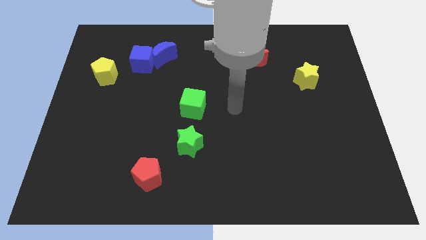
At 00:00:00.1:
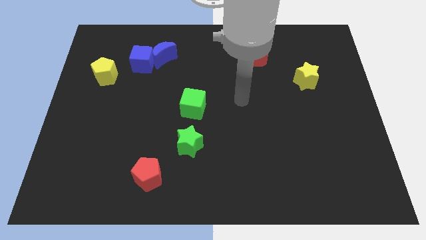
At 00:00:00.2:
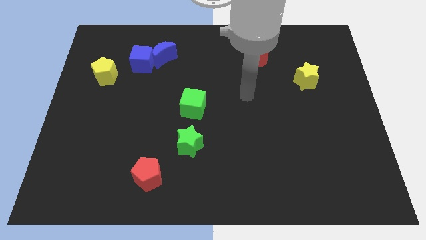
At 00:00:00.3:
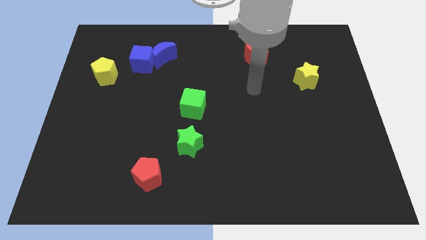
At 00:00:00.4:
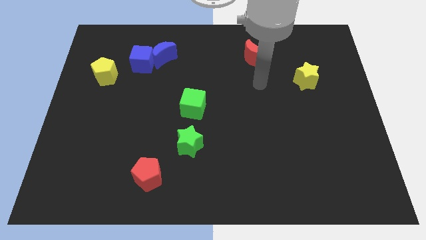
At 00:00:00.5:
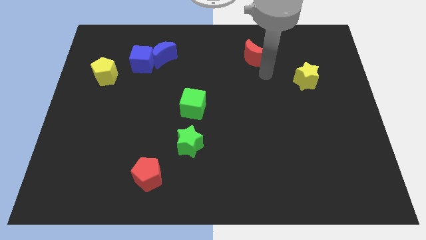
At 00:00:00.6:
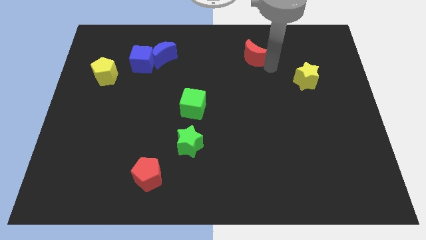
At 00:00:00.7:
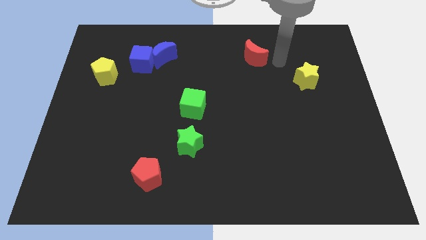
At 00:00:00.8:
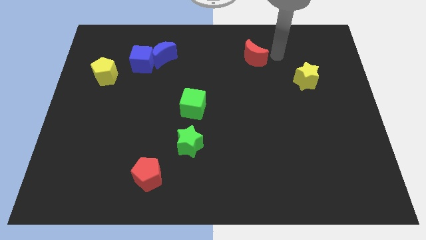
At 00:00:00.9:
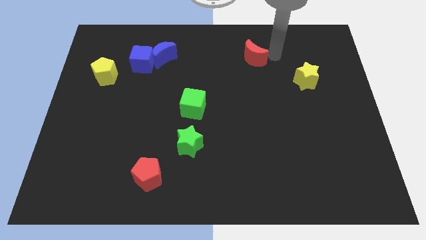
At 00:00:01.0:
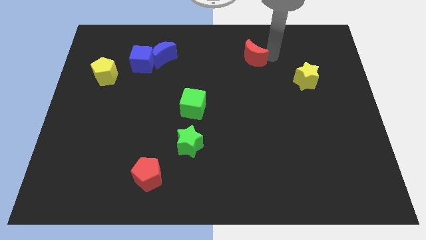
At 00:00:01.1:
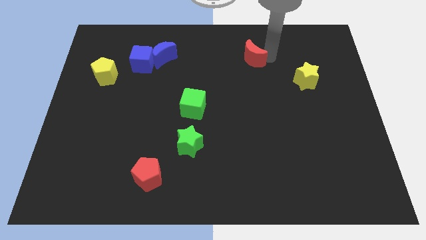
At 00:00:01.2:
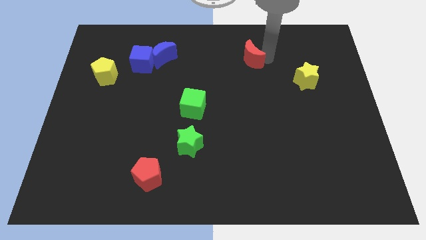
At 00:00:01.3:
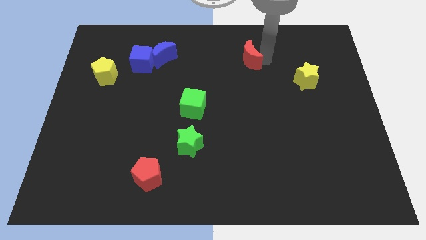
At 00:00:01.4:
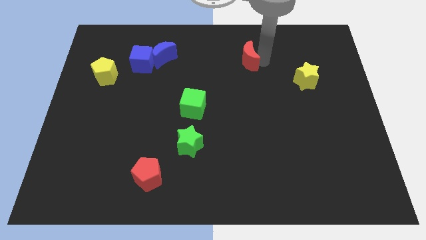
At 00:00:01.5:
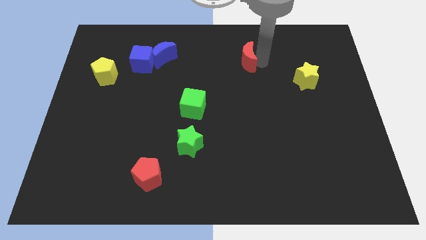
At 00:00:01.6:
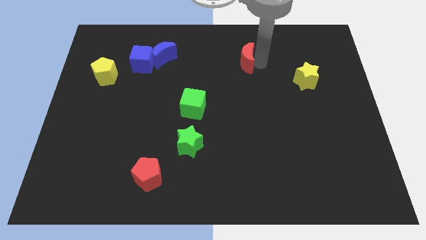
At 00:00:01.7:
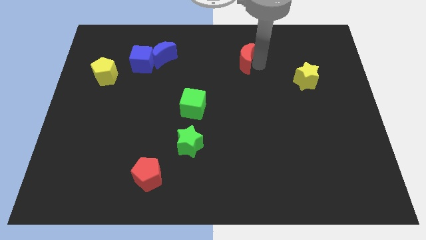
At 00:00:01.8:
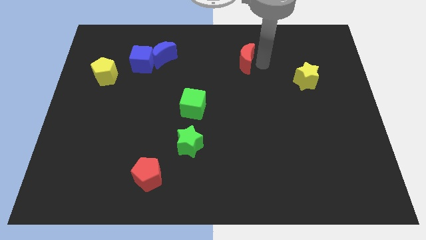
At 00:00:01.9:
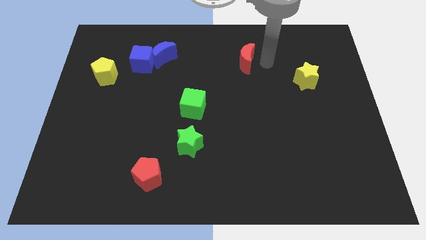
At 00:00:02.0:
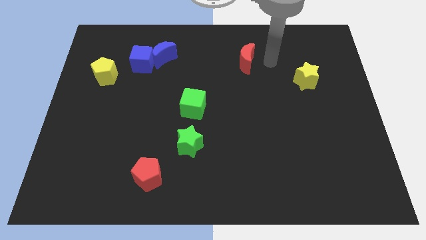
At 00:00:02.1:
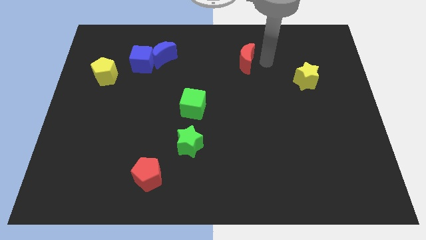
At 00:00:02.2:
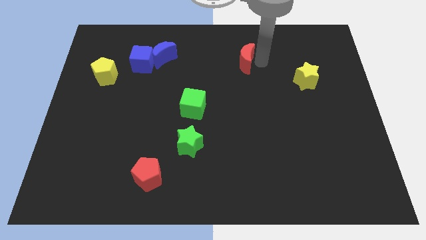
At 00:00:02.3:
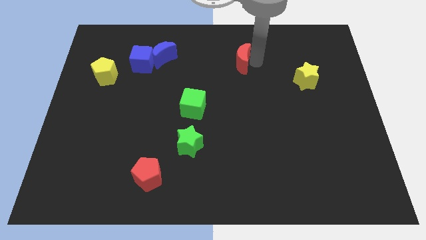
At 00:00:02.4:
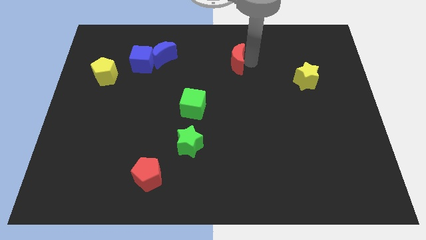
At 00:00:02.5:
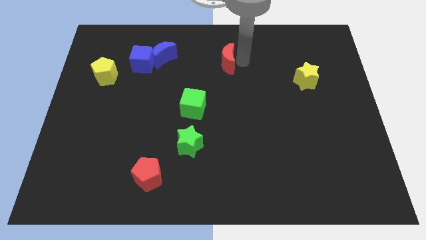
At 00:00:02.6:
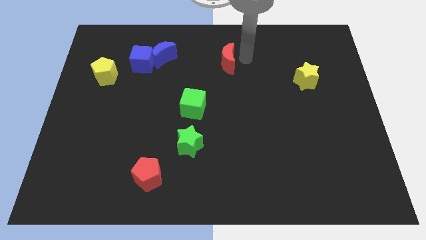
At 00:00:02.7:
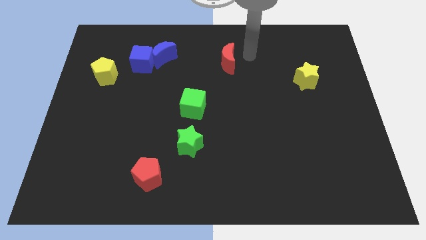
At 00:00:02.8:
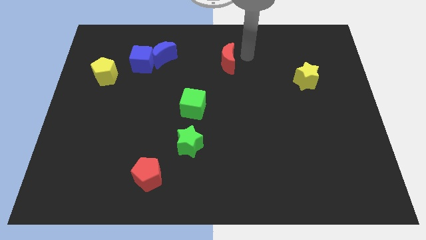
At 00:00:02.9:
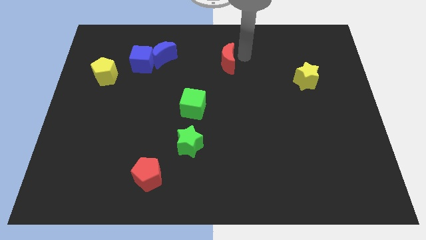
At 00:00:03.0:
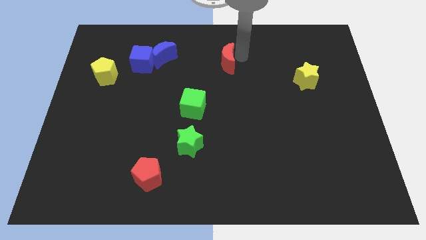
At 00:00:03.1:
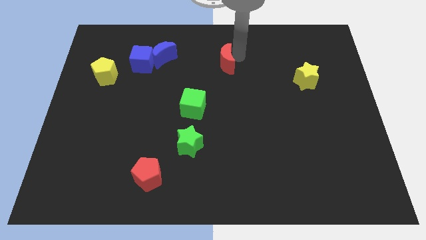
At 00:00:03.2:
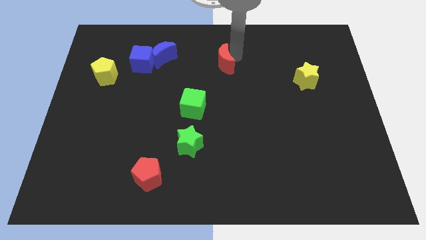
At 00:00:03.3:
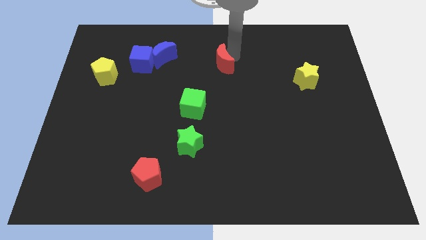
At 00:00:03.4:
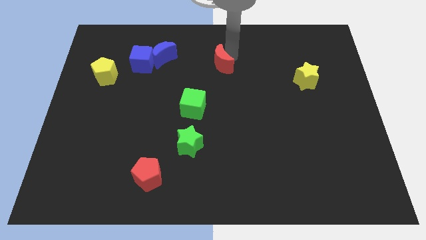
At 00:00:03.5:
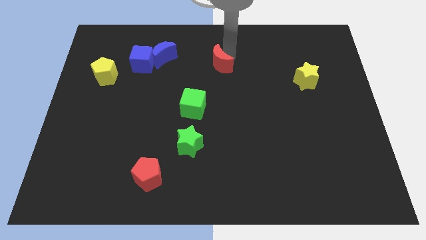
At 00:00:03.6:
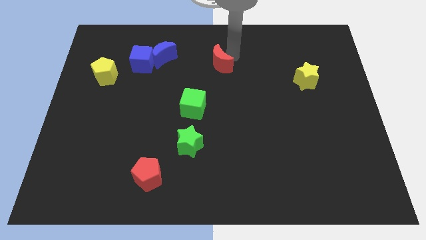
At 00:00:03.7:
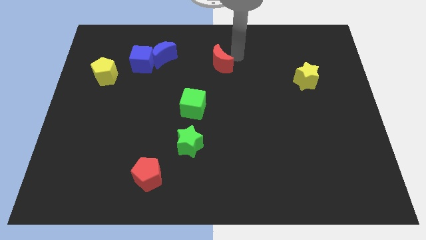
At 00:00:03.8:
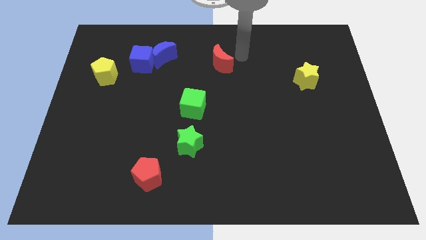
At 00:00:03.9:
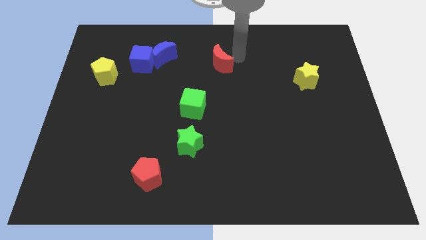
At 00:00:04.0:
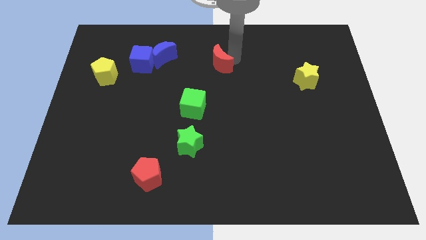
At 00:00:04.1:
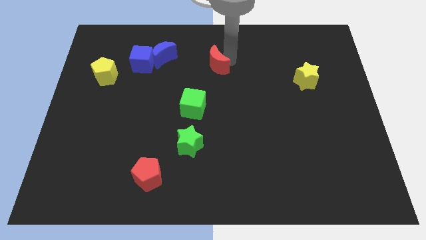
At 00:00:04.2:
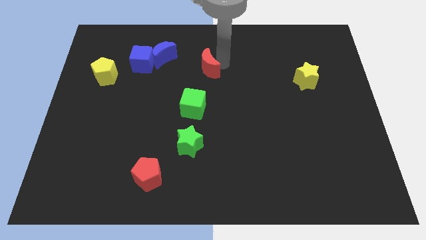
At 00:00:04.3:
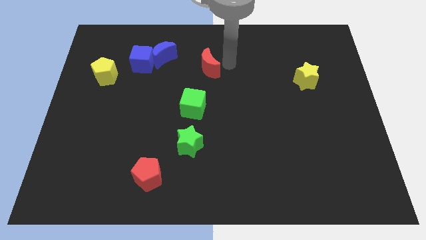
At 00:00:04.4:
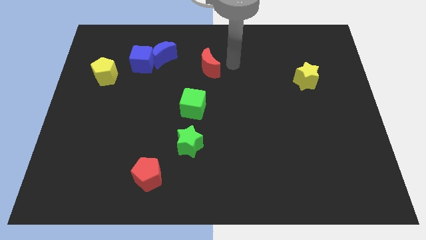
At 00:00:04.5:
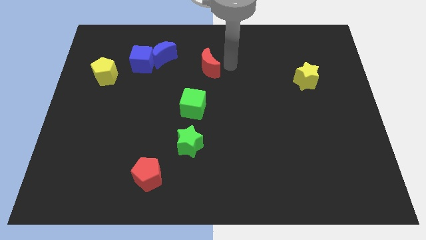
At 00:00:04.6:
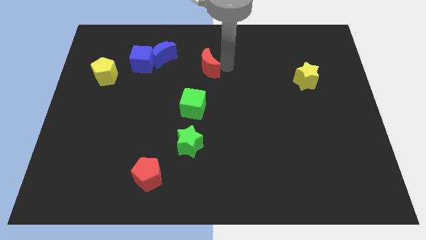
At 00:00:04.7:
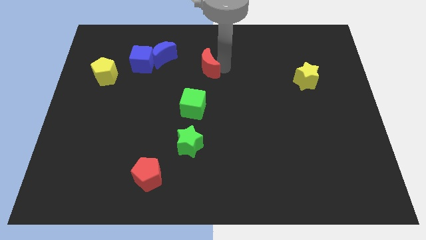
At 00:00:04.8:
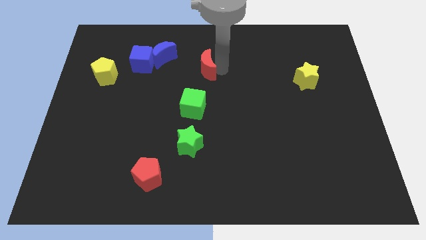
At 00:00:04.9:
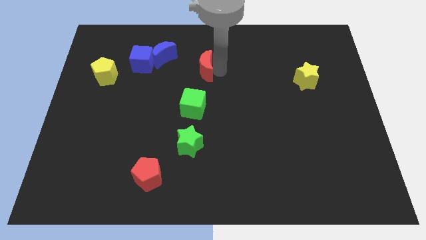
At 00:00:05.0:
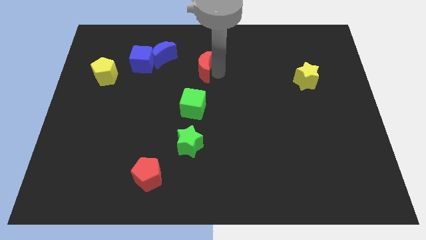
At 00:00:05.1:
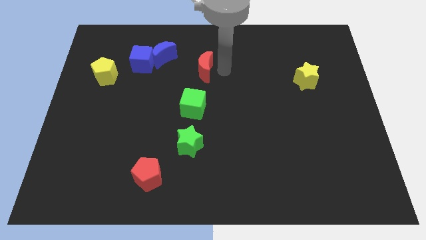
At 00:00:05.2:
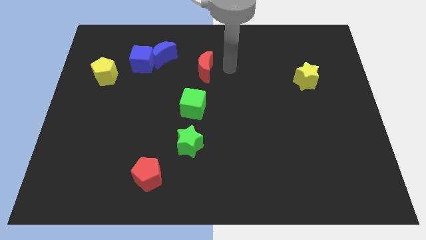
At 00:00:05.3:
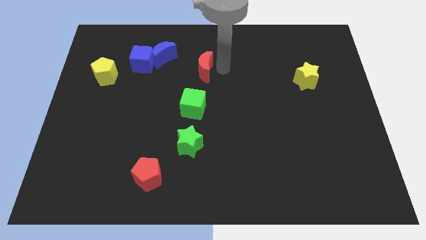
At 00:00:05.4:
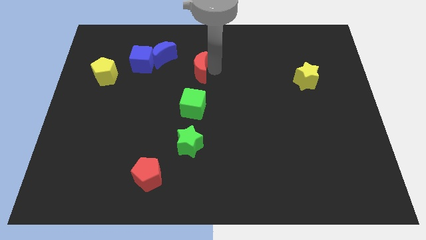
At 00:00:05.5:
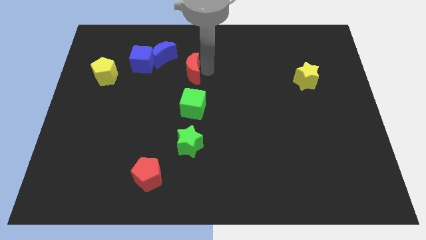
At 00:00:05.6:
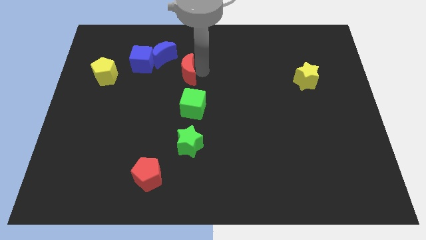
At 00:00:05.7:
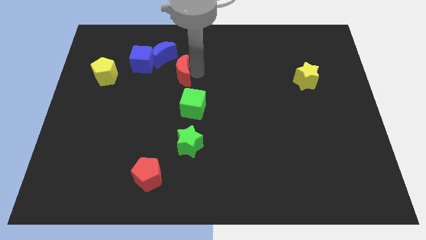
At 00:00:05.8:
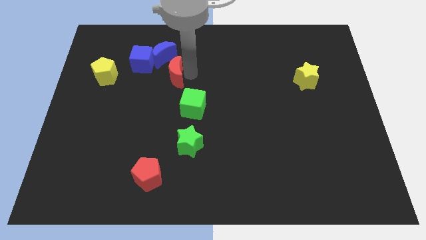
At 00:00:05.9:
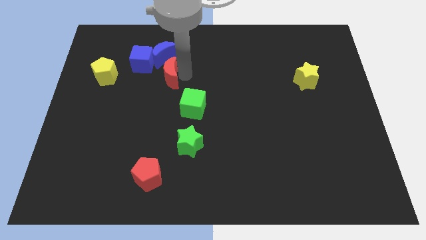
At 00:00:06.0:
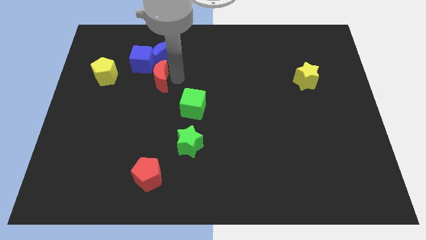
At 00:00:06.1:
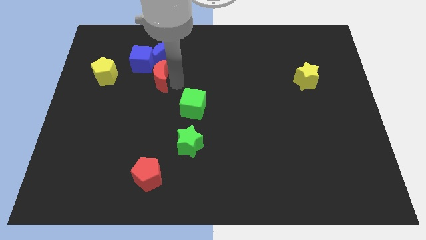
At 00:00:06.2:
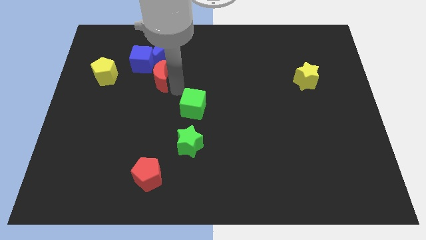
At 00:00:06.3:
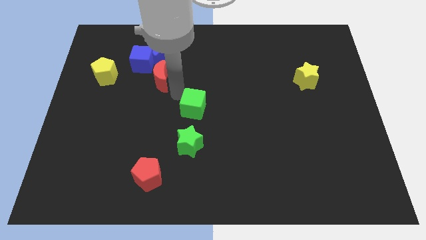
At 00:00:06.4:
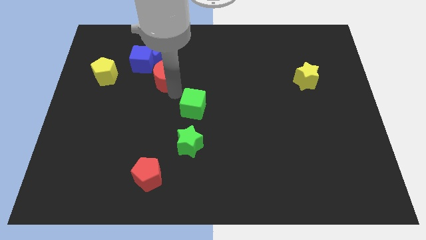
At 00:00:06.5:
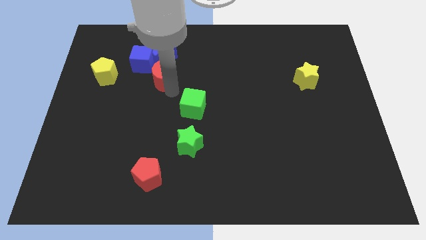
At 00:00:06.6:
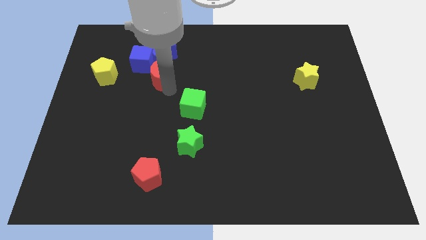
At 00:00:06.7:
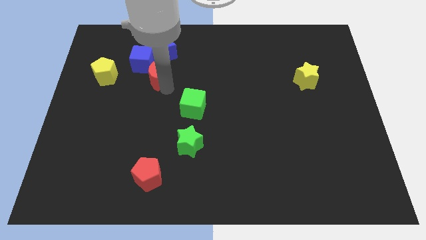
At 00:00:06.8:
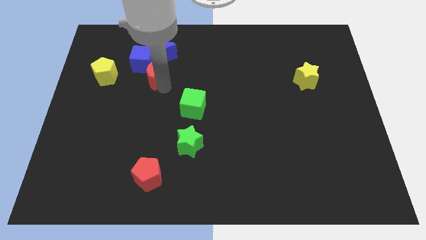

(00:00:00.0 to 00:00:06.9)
put the red moon next to the blue cube
